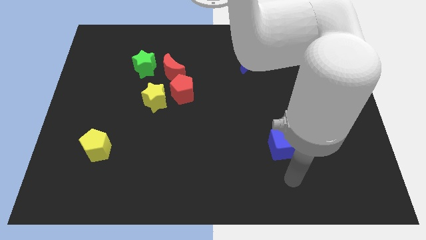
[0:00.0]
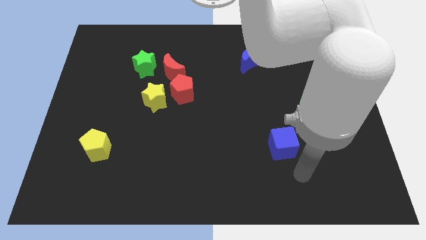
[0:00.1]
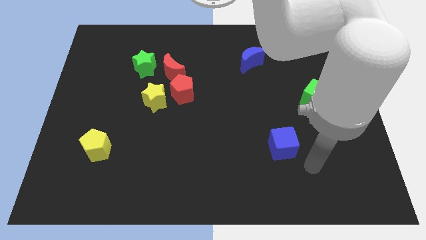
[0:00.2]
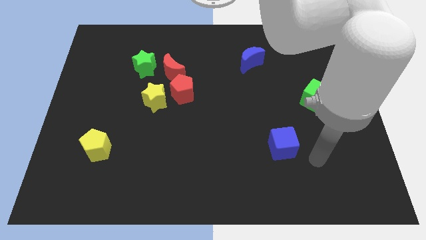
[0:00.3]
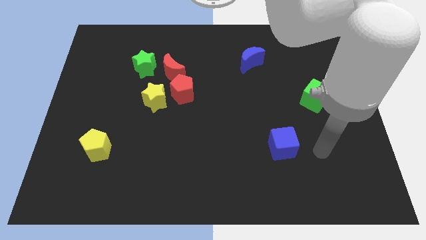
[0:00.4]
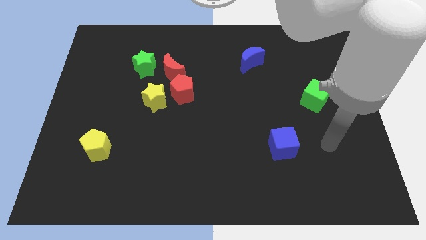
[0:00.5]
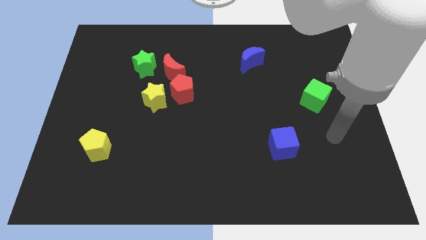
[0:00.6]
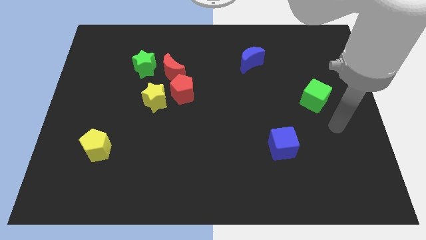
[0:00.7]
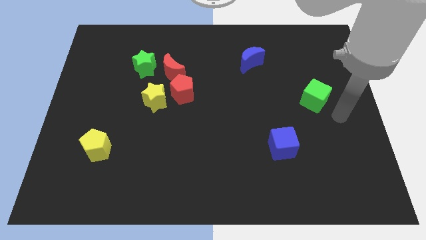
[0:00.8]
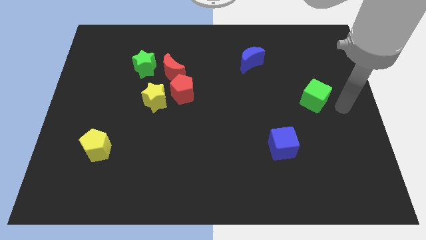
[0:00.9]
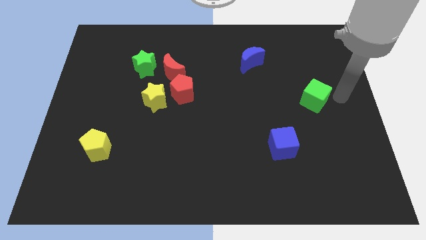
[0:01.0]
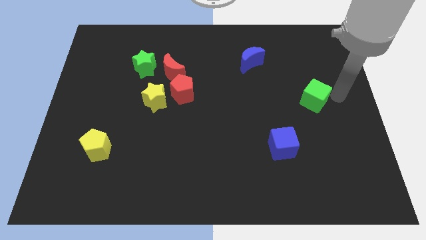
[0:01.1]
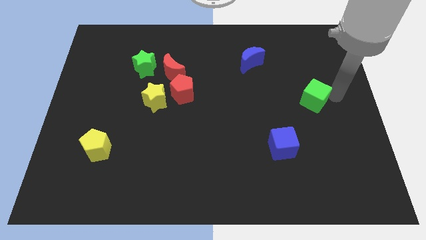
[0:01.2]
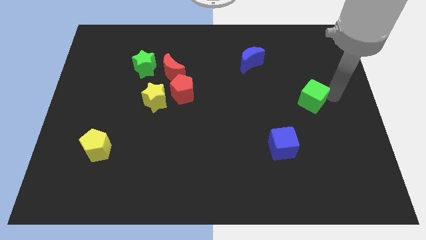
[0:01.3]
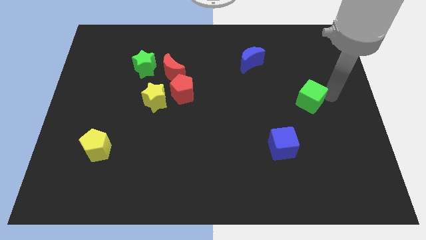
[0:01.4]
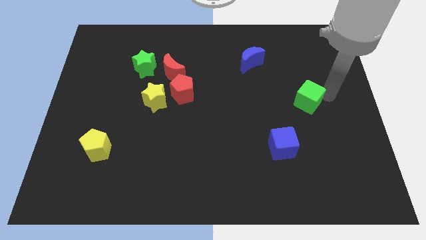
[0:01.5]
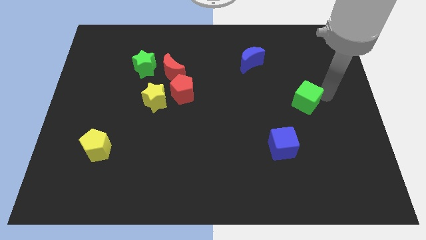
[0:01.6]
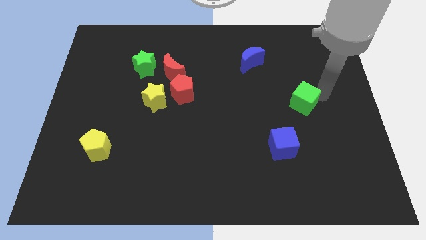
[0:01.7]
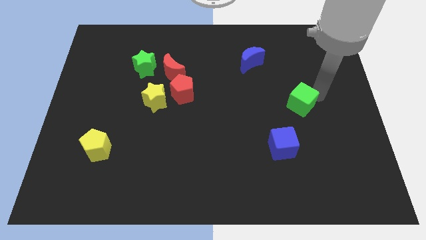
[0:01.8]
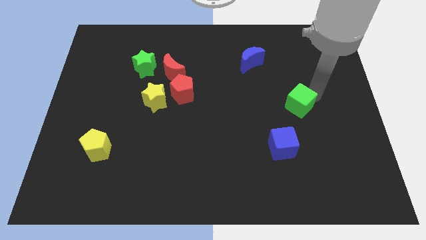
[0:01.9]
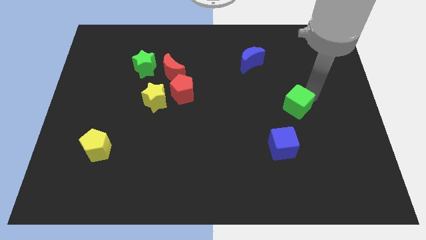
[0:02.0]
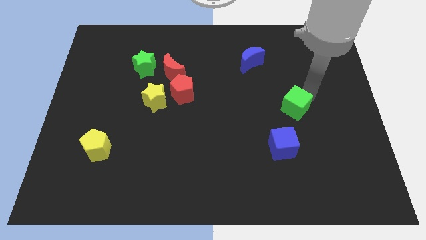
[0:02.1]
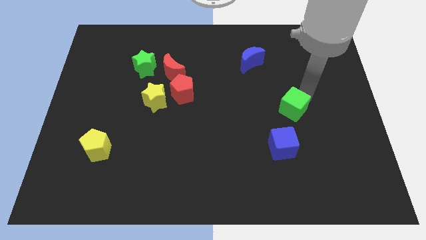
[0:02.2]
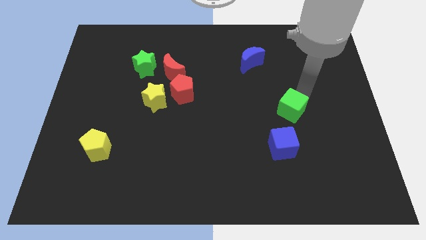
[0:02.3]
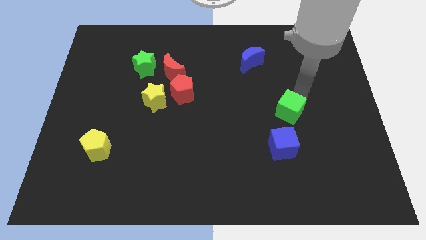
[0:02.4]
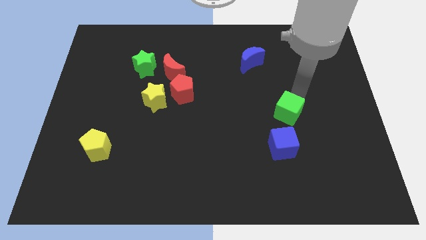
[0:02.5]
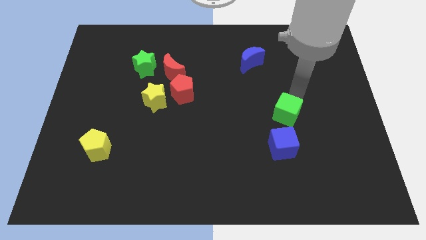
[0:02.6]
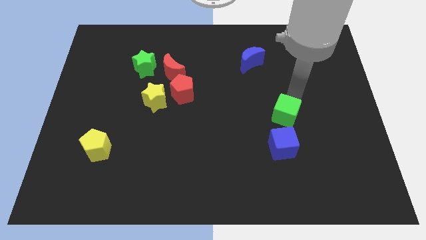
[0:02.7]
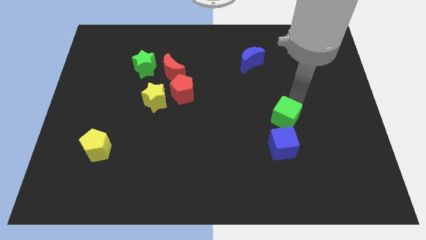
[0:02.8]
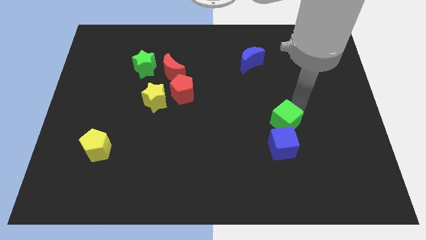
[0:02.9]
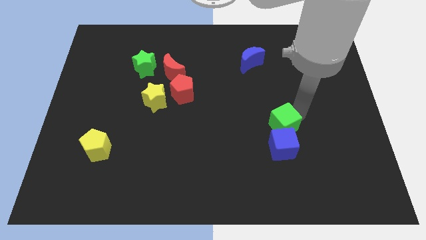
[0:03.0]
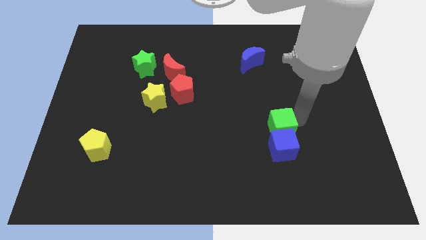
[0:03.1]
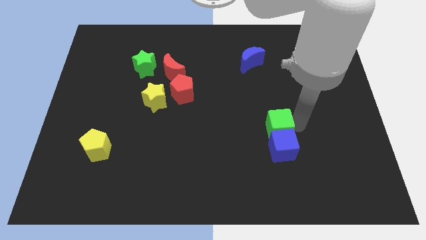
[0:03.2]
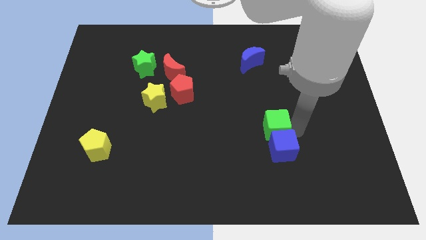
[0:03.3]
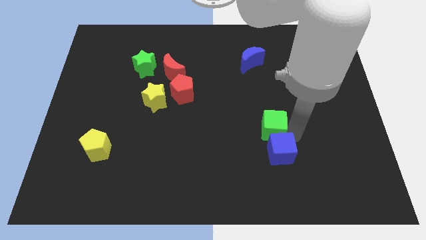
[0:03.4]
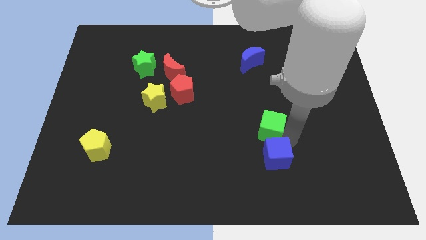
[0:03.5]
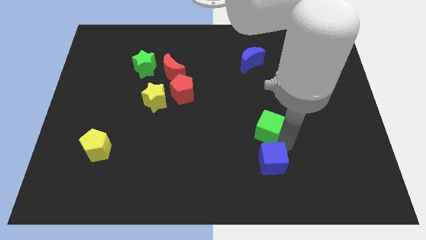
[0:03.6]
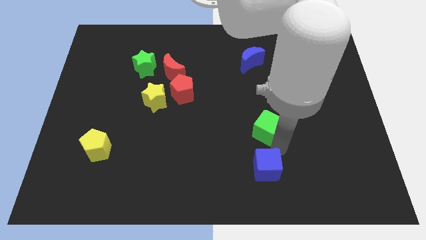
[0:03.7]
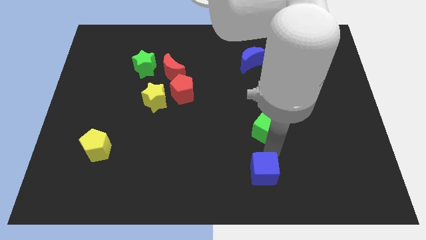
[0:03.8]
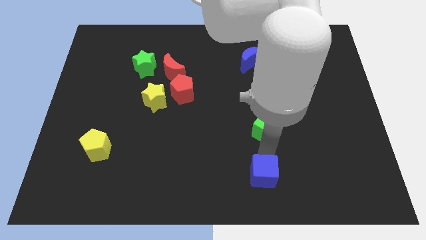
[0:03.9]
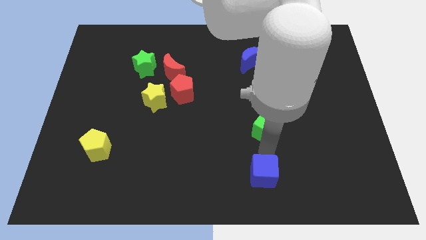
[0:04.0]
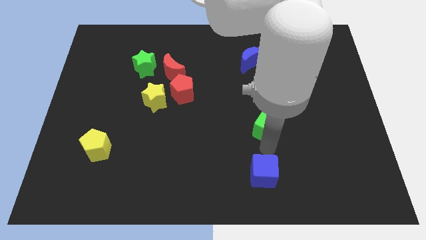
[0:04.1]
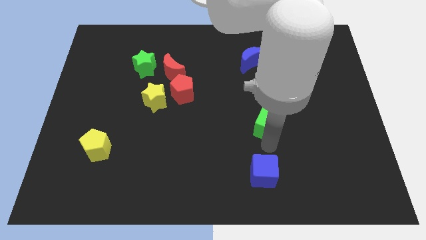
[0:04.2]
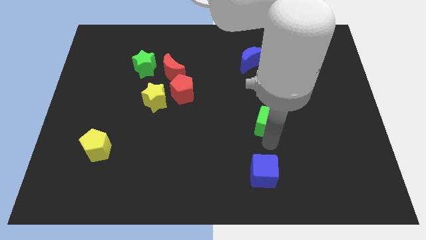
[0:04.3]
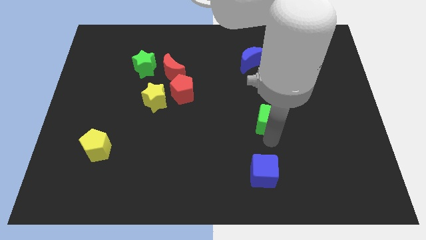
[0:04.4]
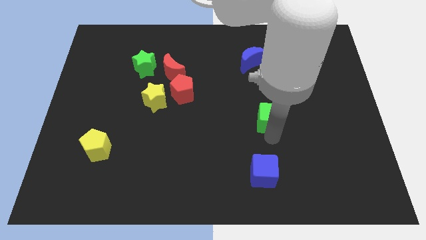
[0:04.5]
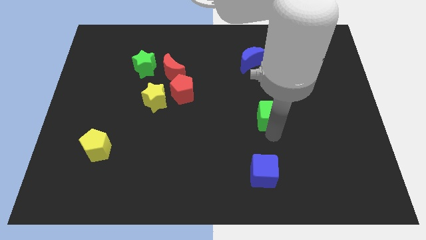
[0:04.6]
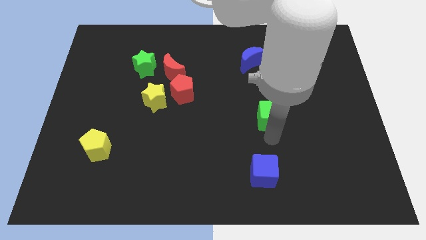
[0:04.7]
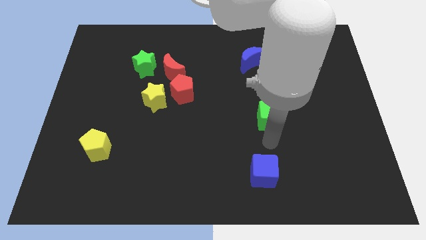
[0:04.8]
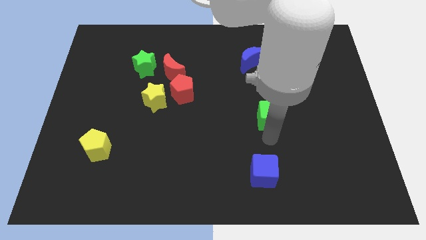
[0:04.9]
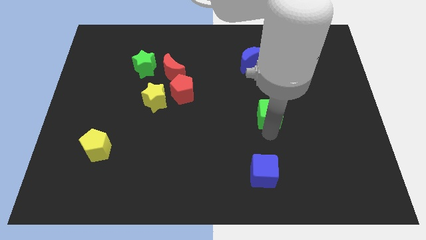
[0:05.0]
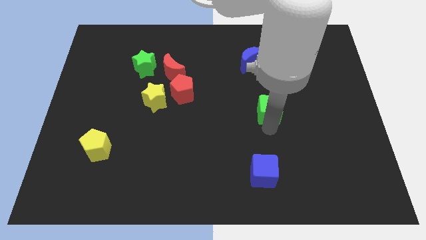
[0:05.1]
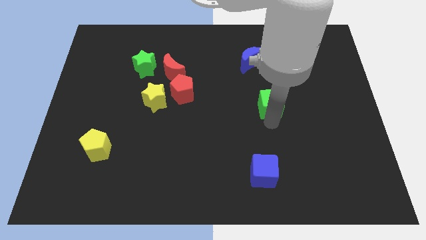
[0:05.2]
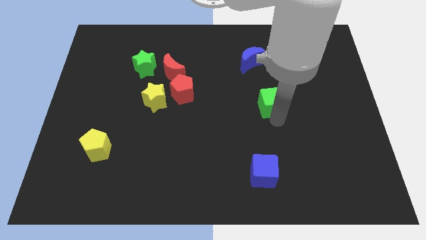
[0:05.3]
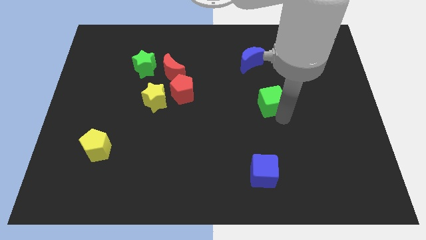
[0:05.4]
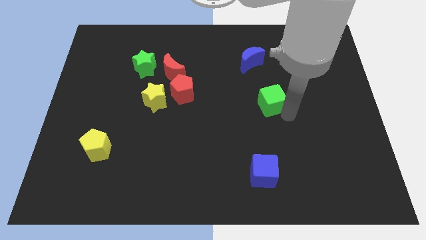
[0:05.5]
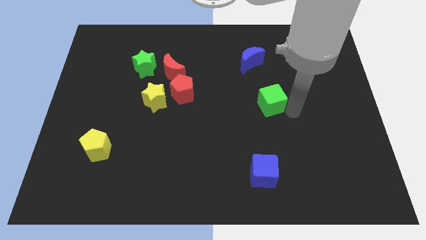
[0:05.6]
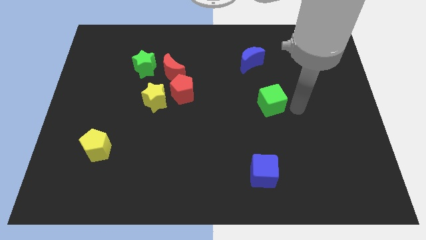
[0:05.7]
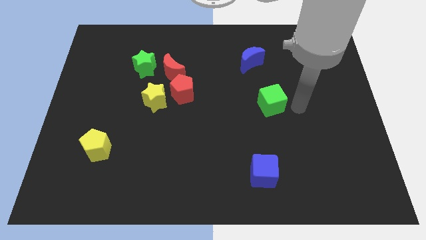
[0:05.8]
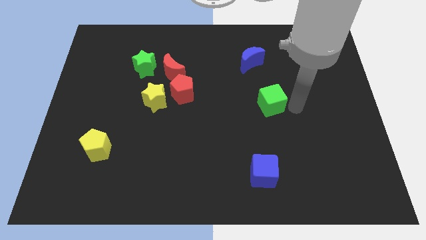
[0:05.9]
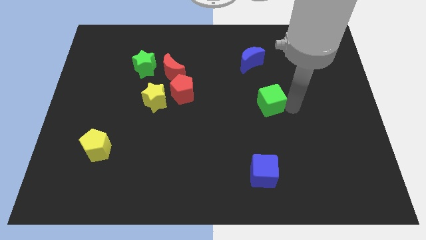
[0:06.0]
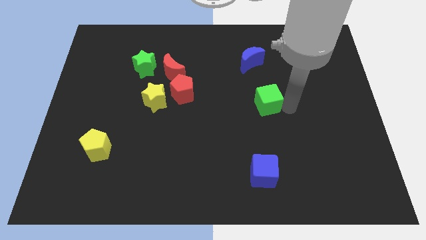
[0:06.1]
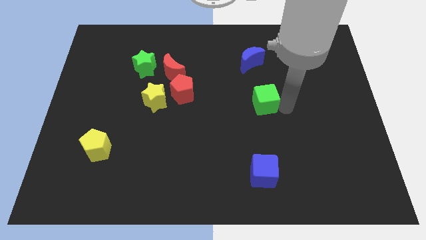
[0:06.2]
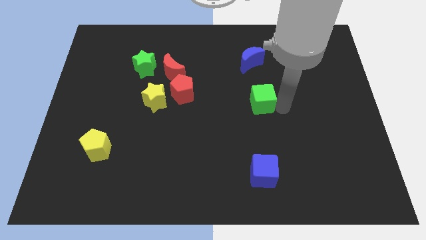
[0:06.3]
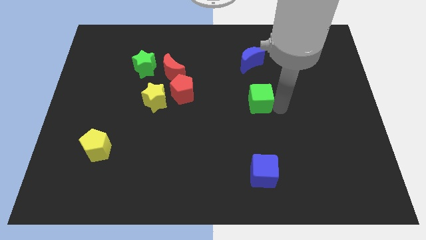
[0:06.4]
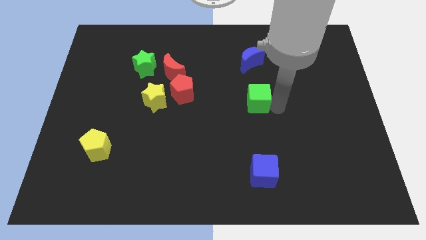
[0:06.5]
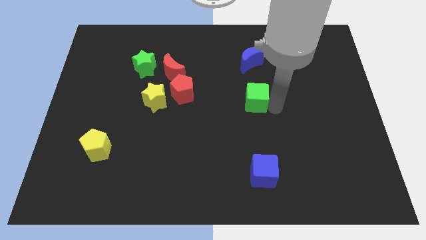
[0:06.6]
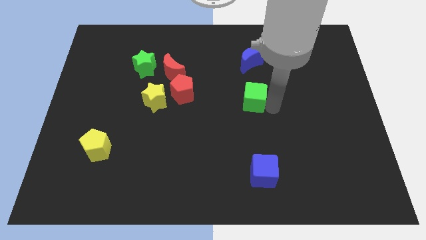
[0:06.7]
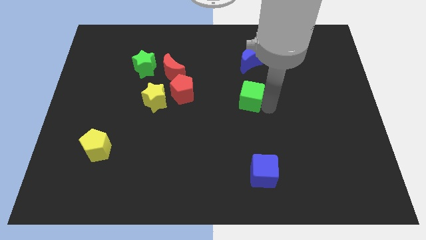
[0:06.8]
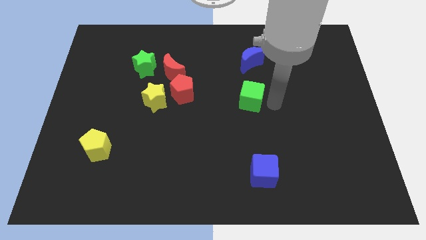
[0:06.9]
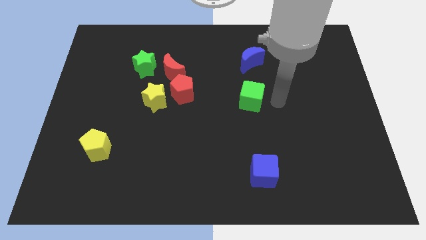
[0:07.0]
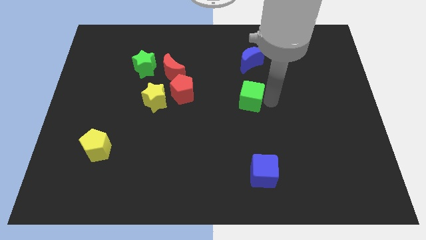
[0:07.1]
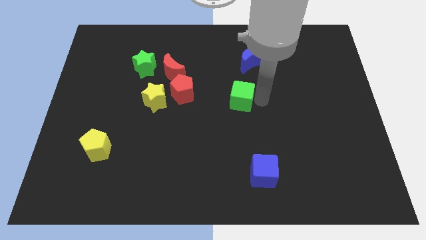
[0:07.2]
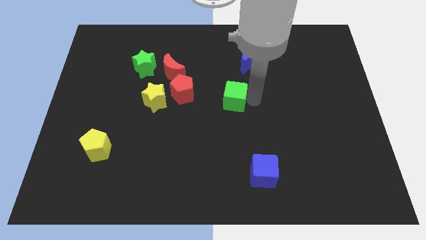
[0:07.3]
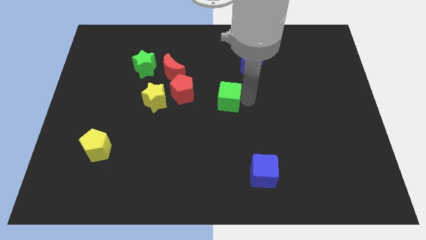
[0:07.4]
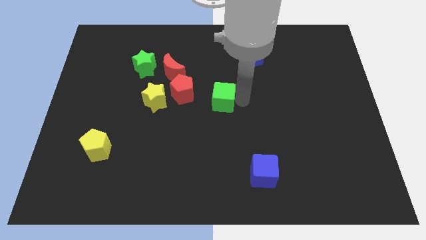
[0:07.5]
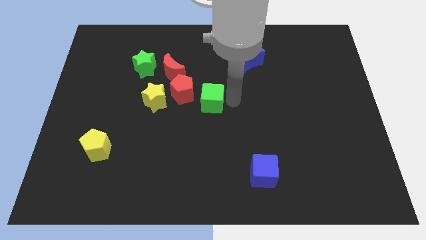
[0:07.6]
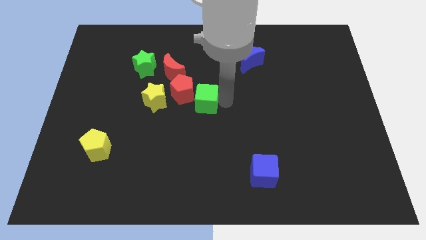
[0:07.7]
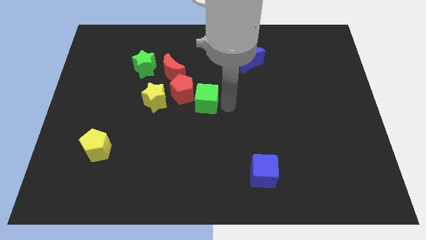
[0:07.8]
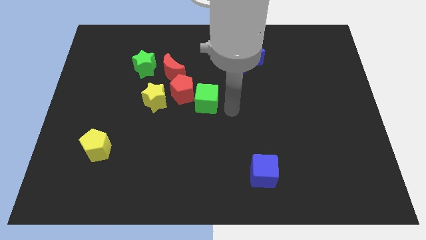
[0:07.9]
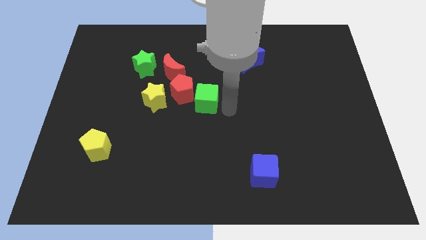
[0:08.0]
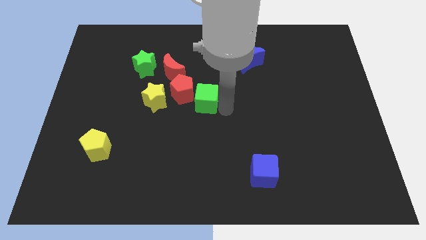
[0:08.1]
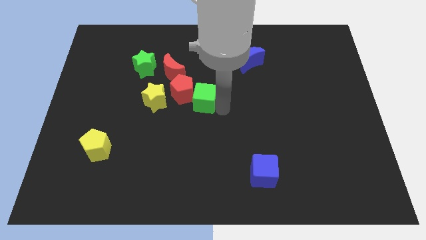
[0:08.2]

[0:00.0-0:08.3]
push the green cube to the red pentagon
